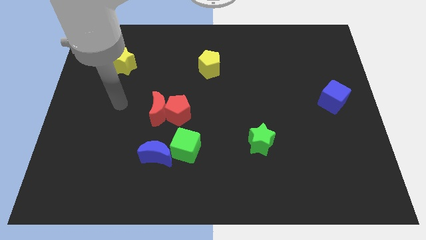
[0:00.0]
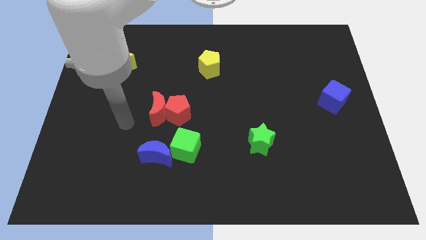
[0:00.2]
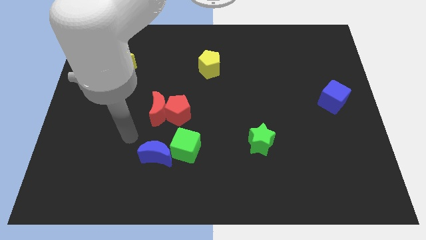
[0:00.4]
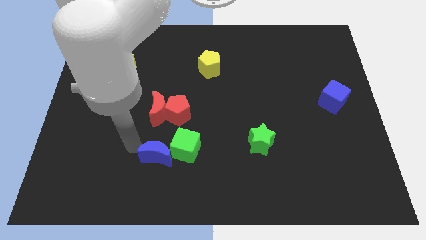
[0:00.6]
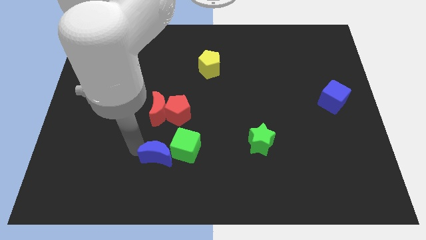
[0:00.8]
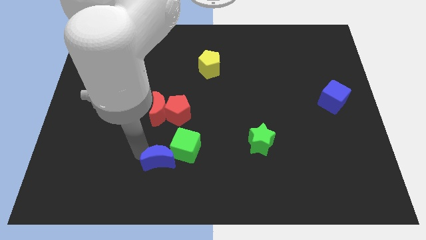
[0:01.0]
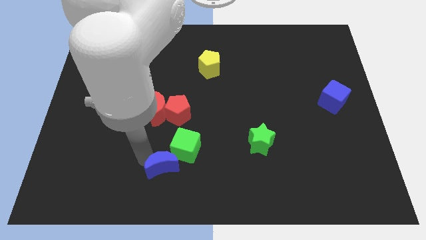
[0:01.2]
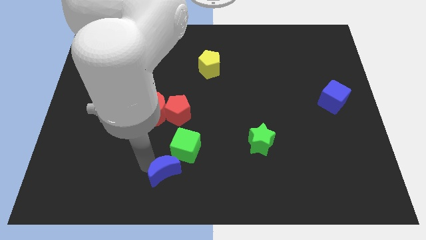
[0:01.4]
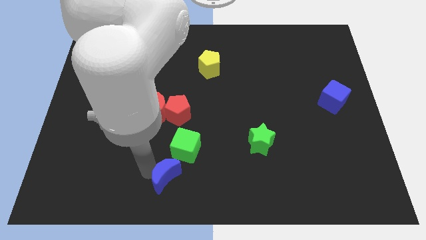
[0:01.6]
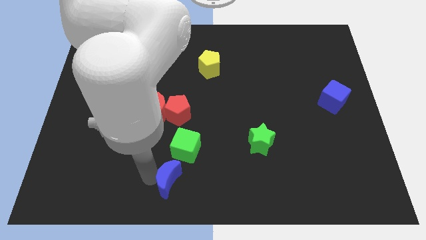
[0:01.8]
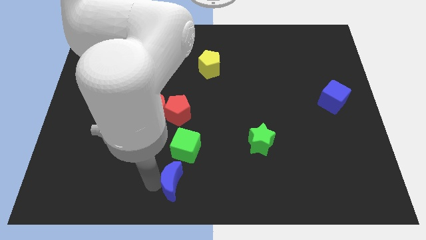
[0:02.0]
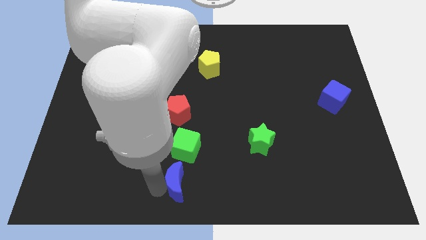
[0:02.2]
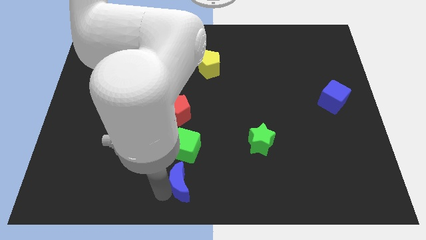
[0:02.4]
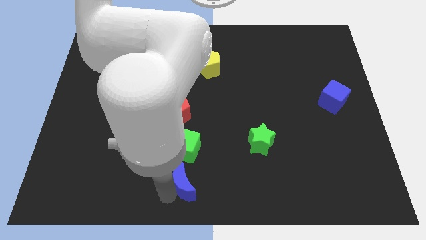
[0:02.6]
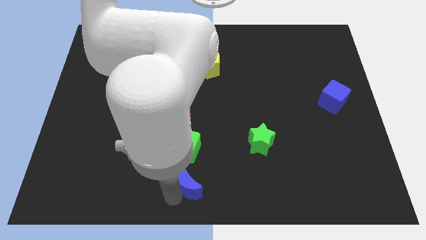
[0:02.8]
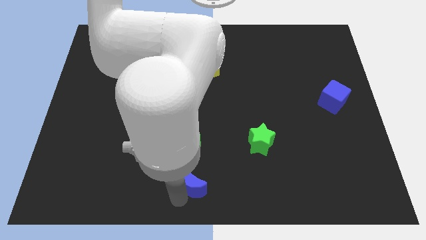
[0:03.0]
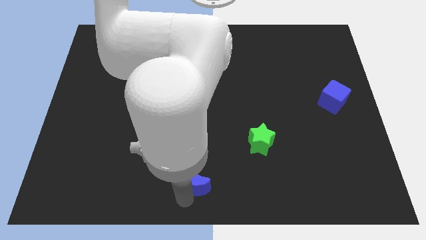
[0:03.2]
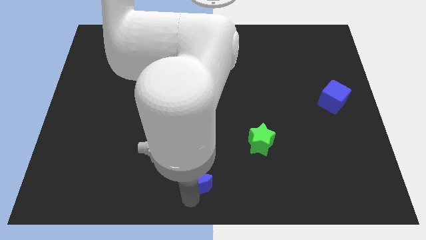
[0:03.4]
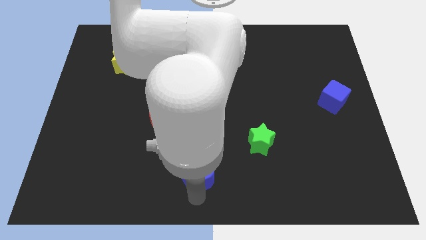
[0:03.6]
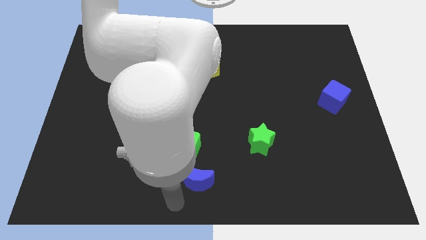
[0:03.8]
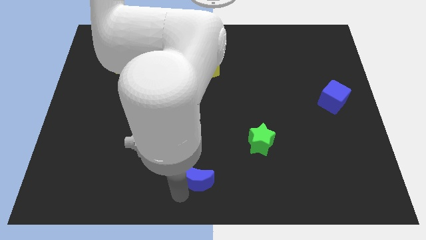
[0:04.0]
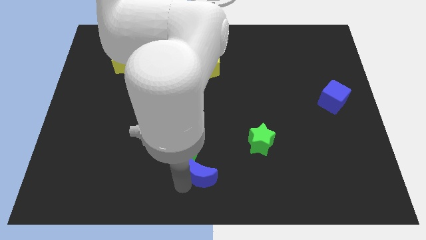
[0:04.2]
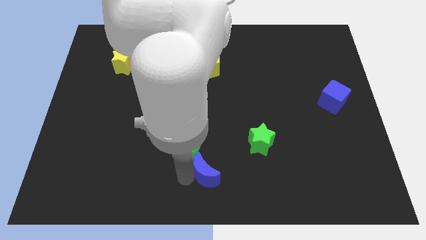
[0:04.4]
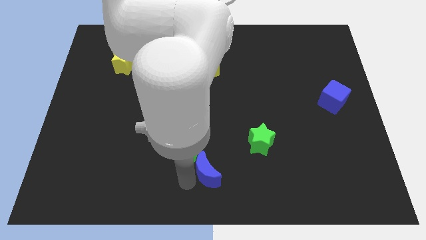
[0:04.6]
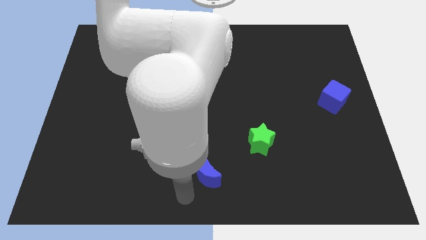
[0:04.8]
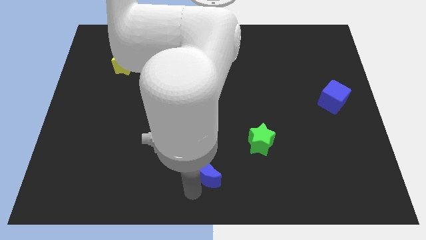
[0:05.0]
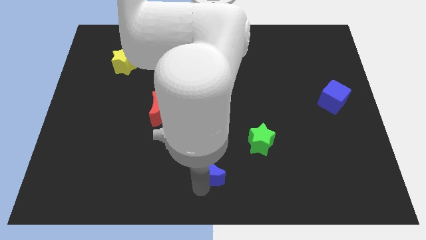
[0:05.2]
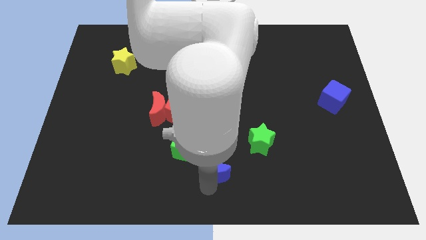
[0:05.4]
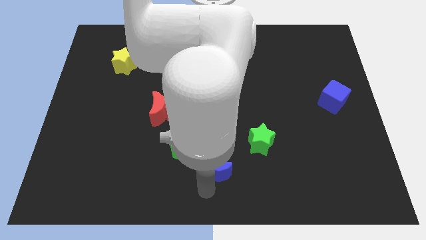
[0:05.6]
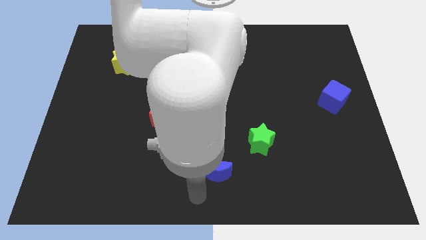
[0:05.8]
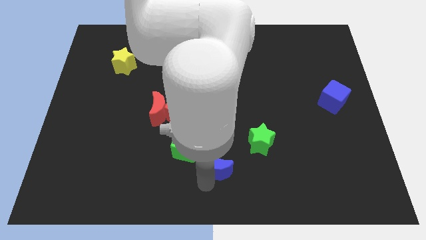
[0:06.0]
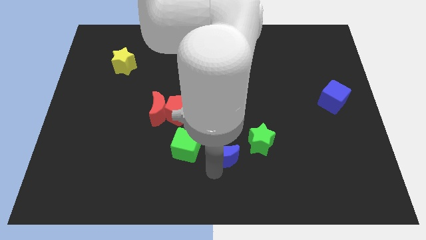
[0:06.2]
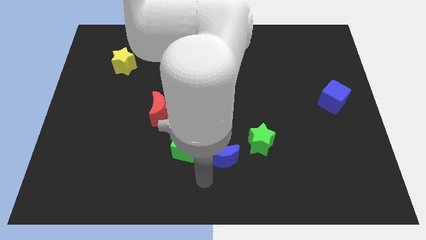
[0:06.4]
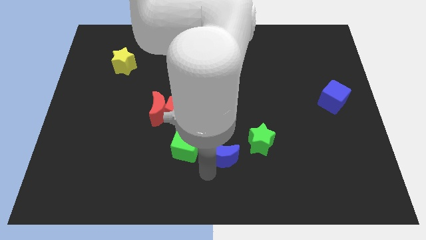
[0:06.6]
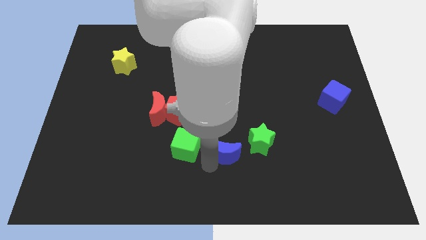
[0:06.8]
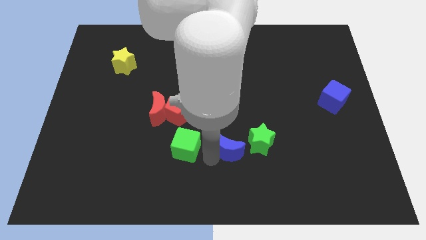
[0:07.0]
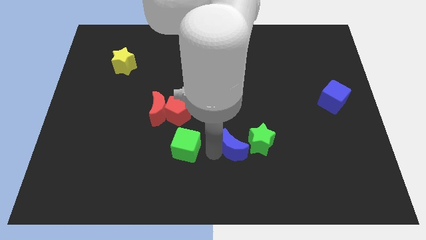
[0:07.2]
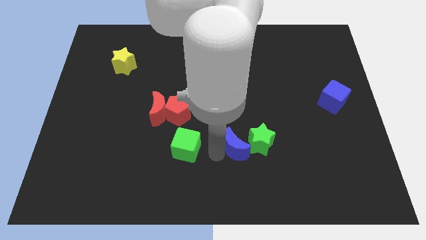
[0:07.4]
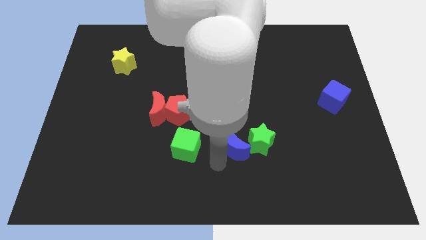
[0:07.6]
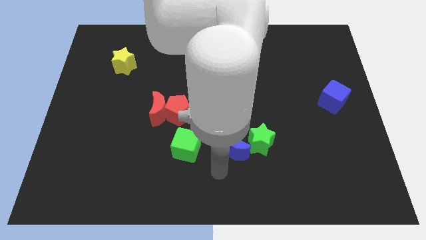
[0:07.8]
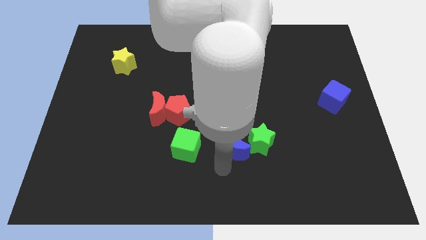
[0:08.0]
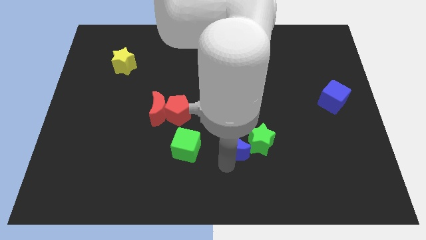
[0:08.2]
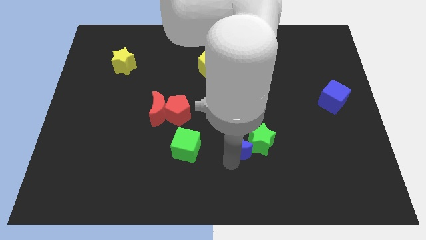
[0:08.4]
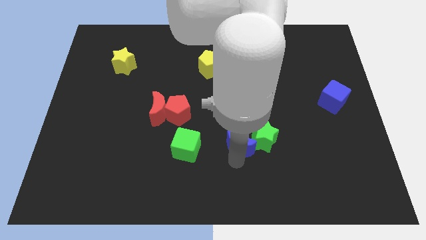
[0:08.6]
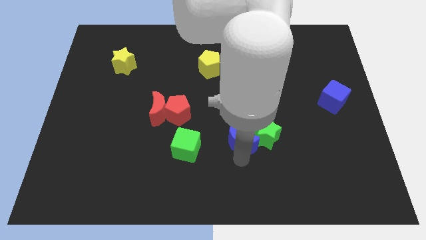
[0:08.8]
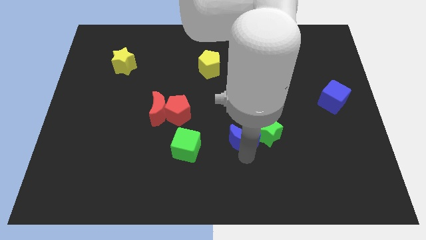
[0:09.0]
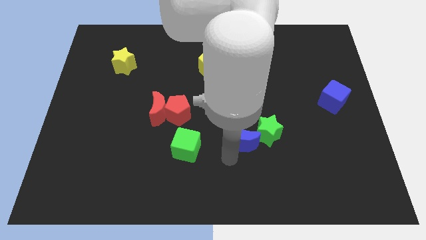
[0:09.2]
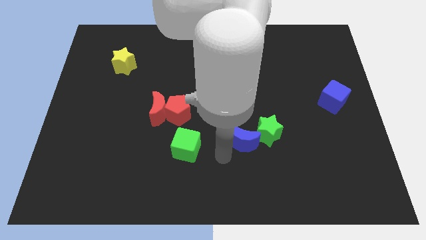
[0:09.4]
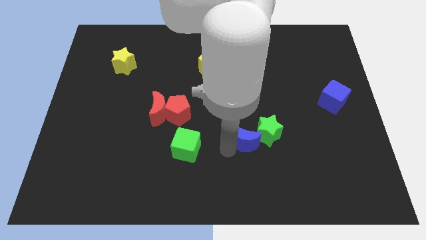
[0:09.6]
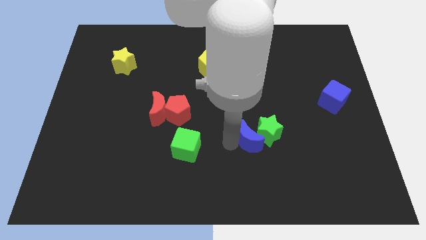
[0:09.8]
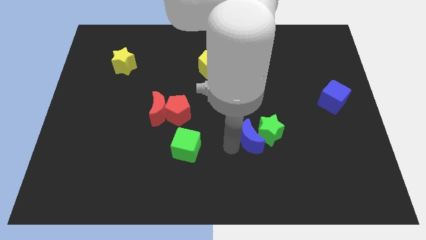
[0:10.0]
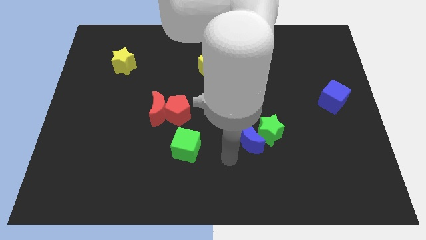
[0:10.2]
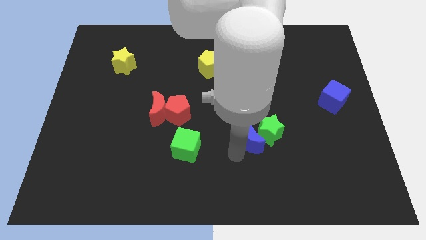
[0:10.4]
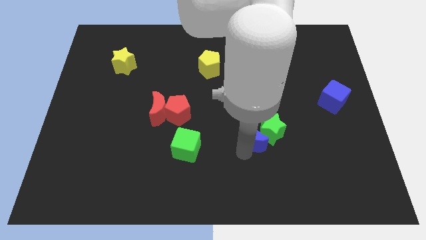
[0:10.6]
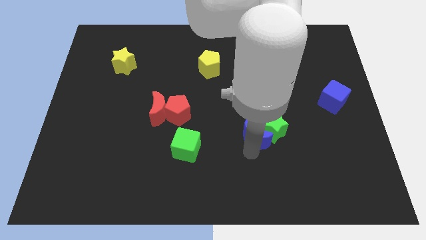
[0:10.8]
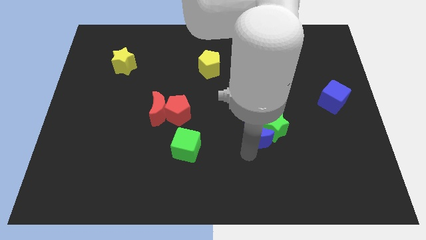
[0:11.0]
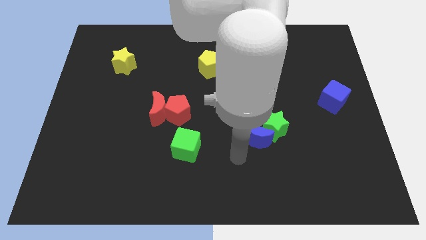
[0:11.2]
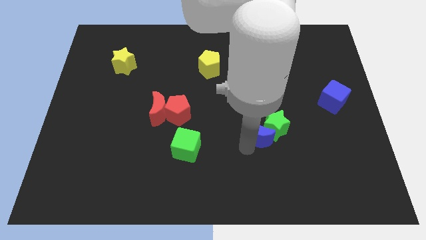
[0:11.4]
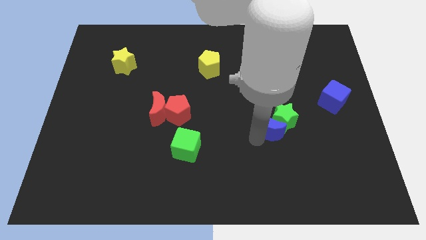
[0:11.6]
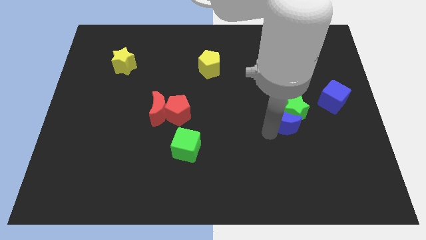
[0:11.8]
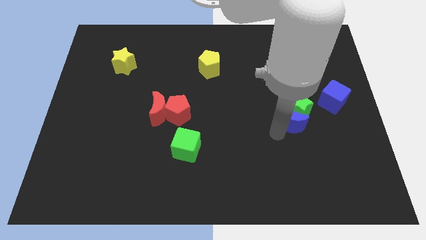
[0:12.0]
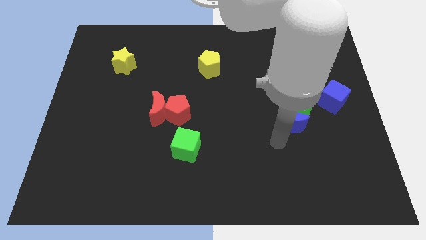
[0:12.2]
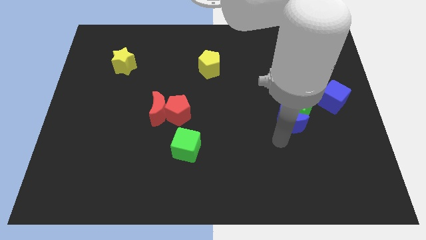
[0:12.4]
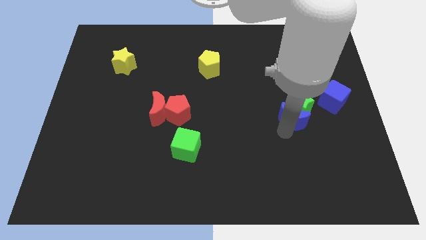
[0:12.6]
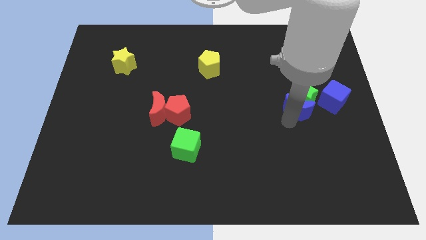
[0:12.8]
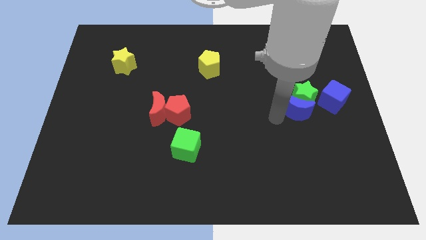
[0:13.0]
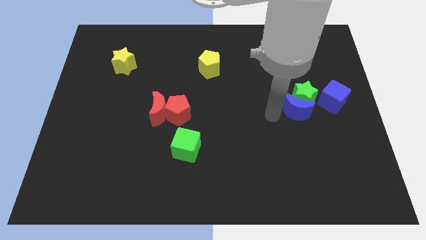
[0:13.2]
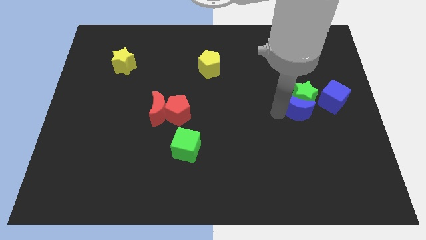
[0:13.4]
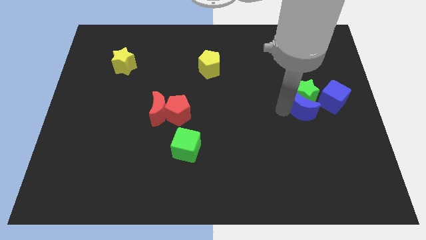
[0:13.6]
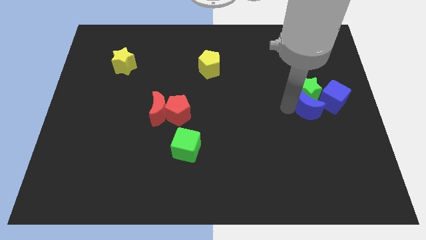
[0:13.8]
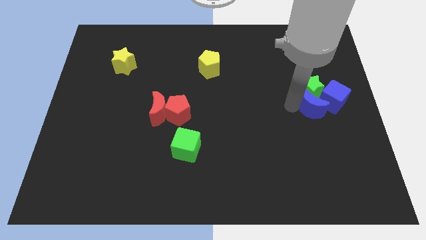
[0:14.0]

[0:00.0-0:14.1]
move the blue moon next to the blue cube
